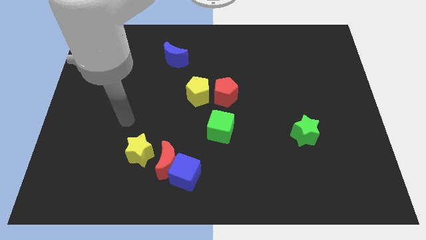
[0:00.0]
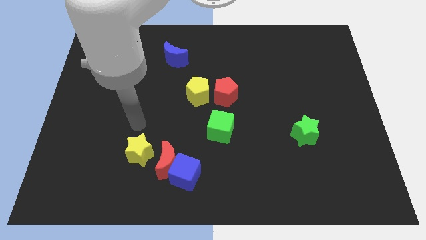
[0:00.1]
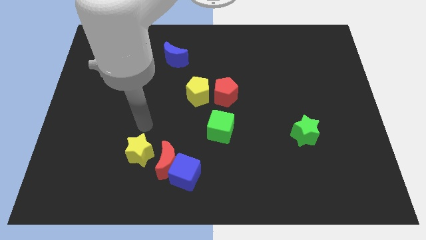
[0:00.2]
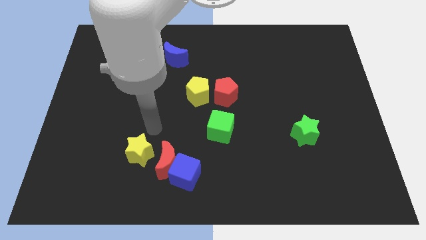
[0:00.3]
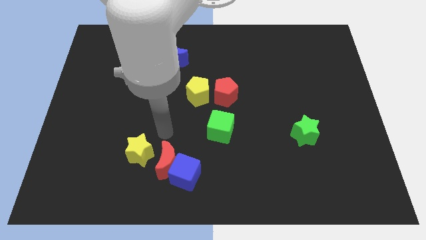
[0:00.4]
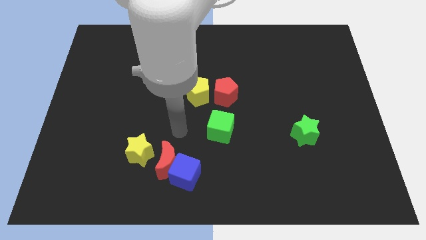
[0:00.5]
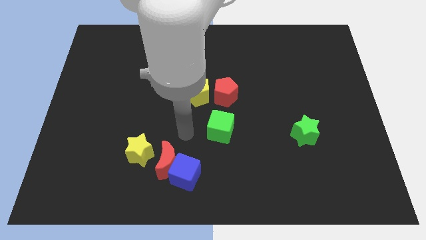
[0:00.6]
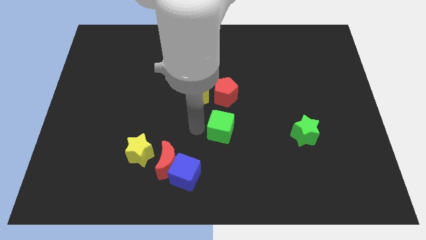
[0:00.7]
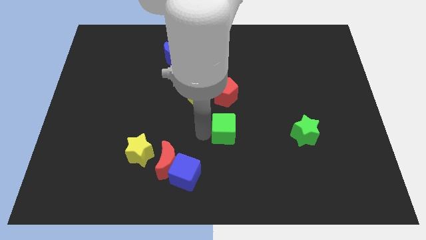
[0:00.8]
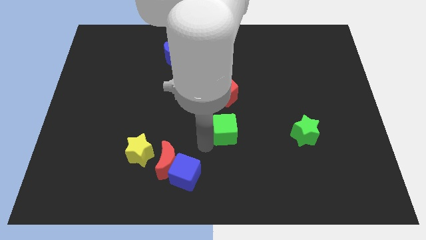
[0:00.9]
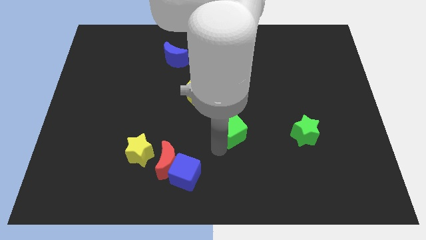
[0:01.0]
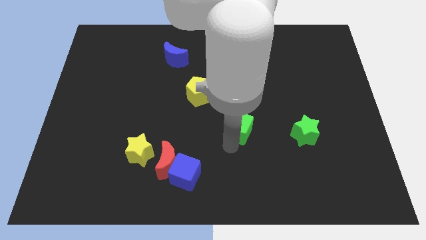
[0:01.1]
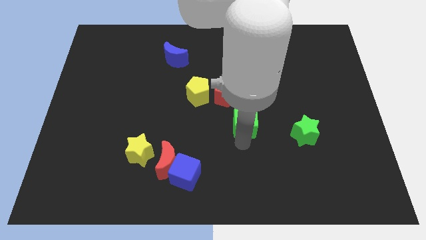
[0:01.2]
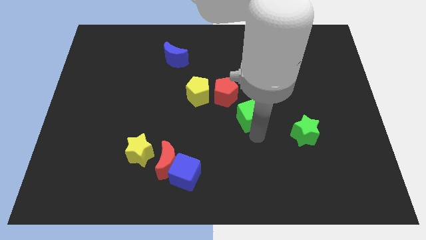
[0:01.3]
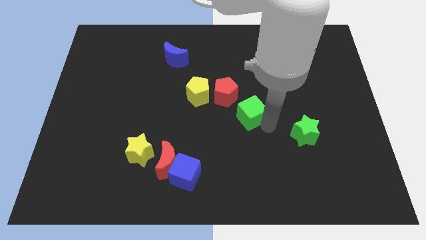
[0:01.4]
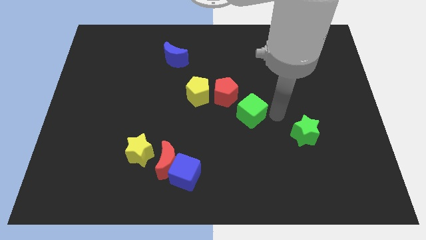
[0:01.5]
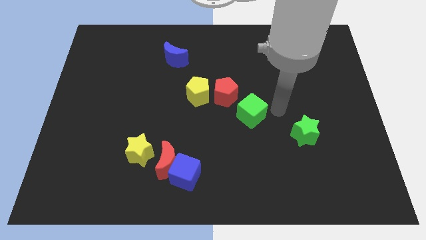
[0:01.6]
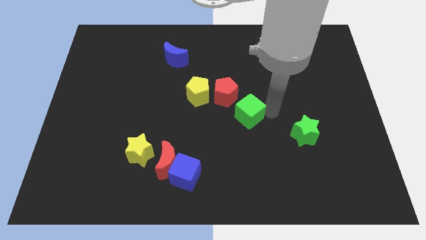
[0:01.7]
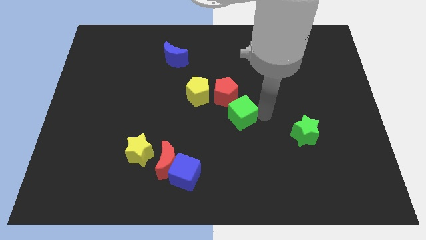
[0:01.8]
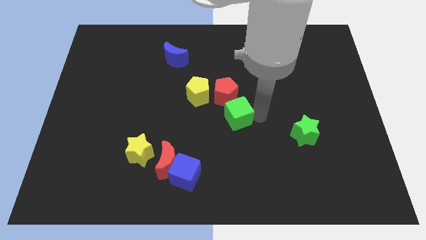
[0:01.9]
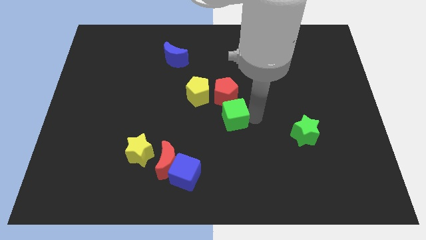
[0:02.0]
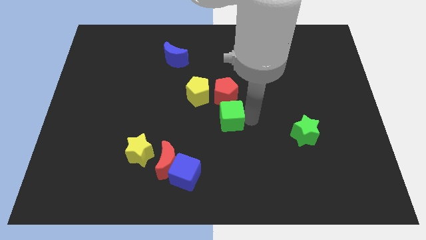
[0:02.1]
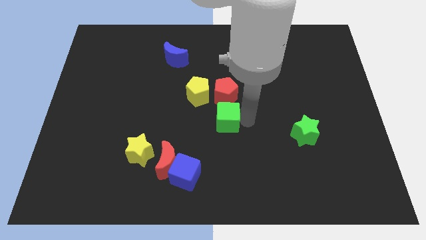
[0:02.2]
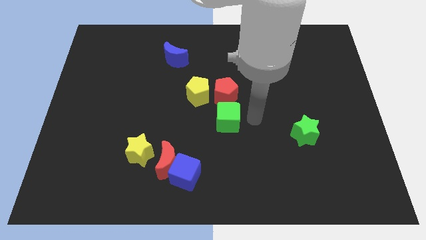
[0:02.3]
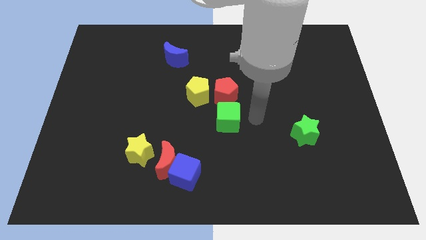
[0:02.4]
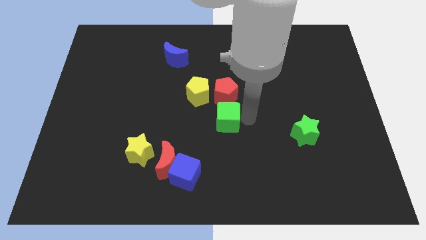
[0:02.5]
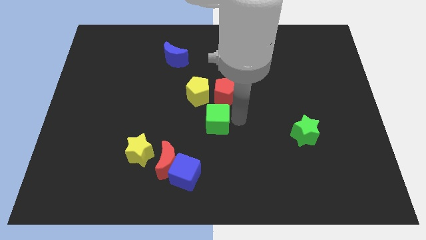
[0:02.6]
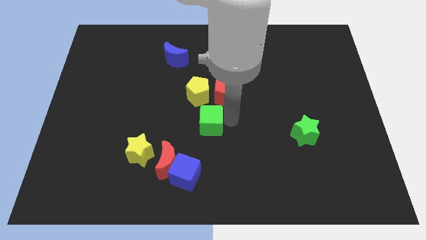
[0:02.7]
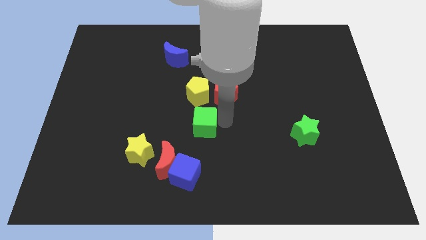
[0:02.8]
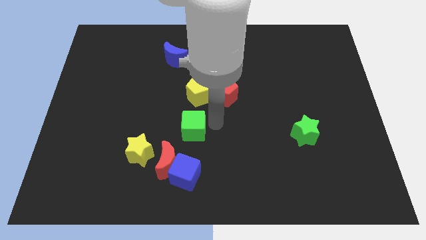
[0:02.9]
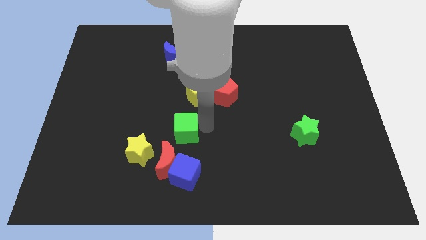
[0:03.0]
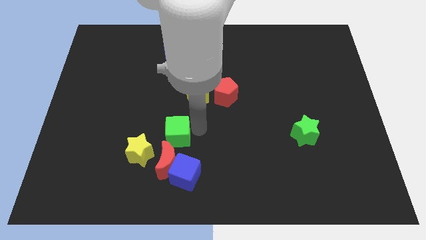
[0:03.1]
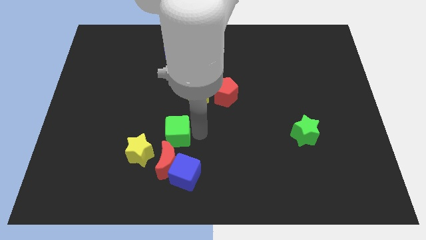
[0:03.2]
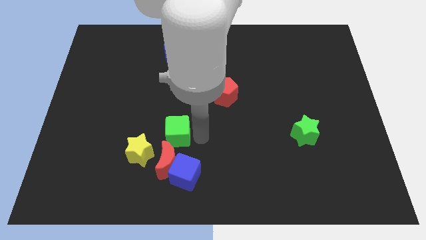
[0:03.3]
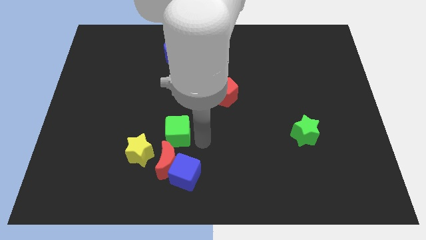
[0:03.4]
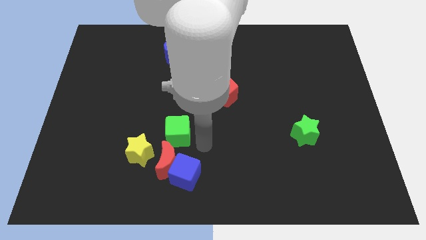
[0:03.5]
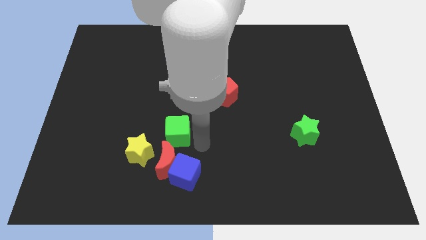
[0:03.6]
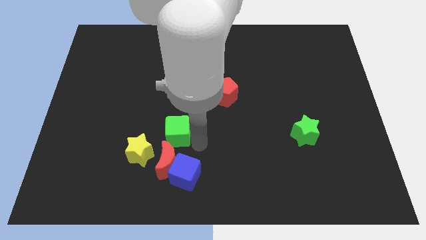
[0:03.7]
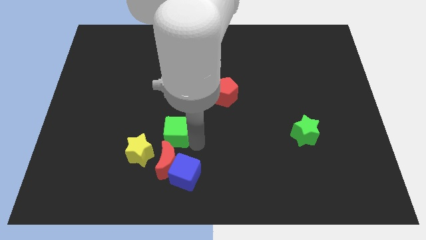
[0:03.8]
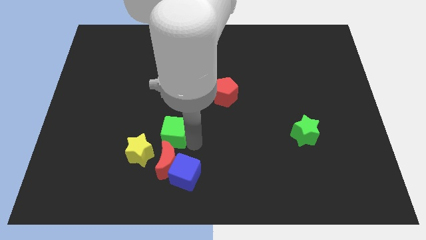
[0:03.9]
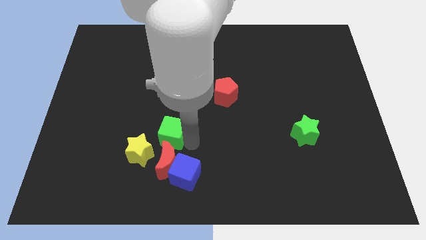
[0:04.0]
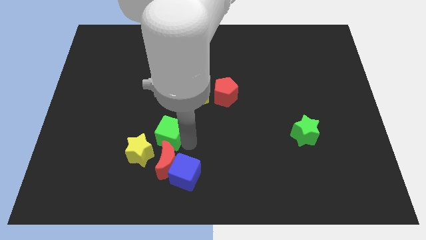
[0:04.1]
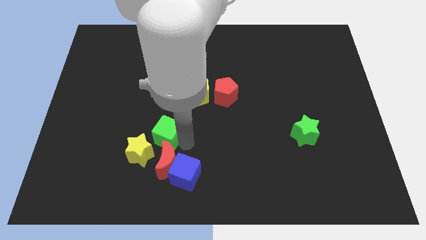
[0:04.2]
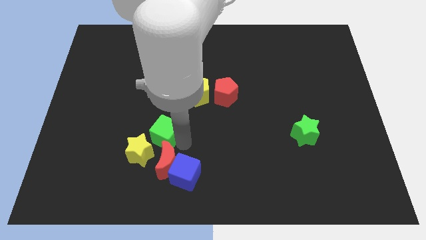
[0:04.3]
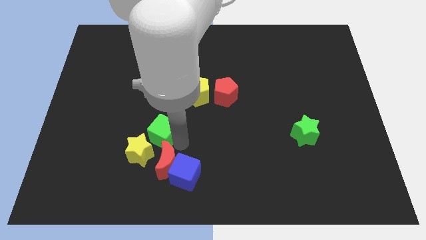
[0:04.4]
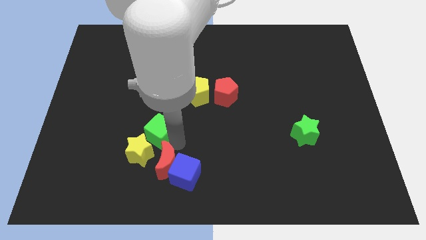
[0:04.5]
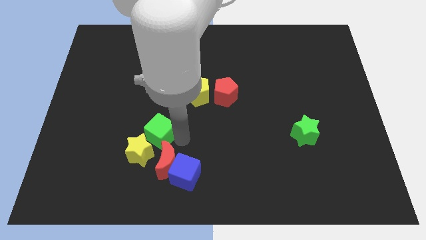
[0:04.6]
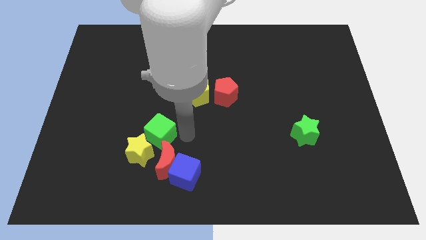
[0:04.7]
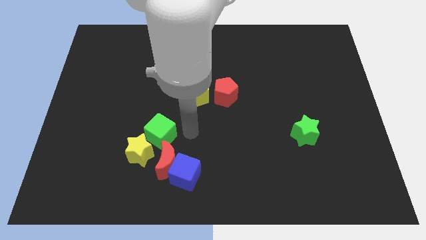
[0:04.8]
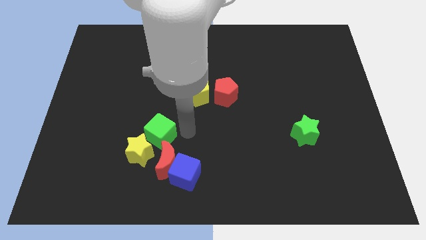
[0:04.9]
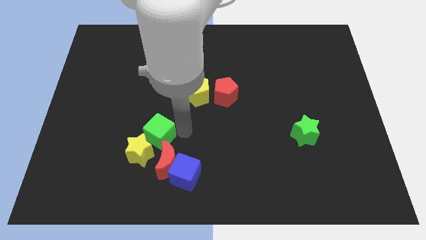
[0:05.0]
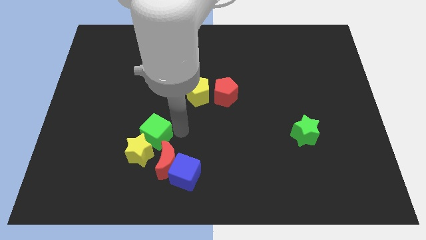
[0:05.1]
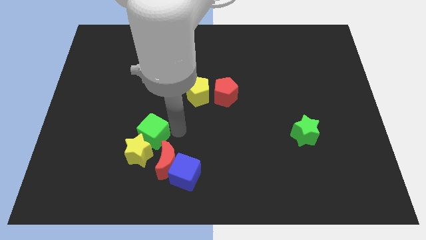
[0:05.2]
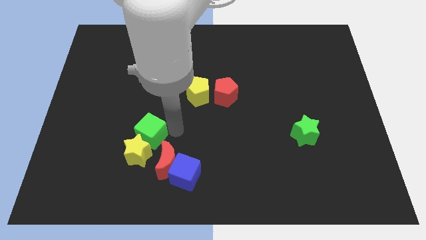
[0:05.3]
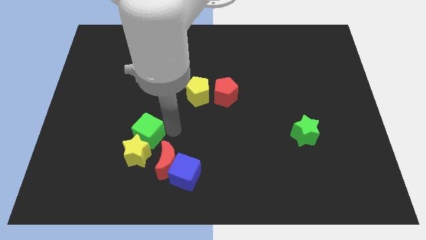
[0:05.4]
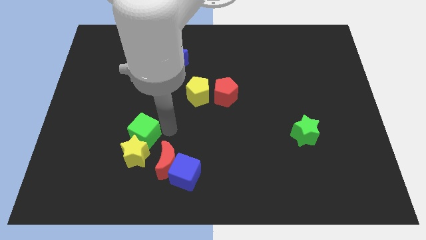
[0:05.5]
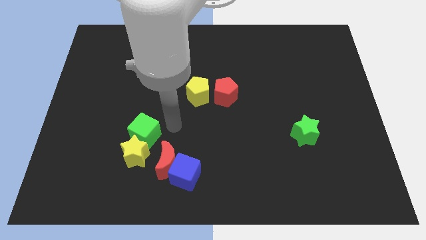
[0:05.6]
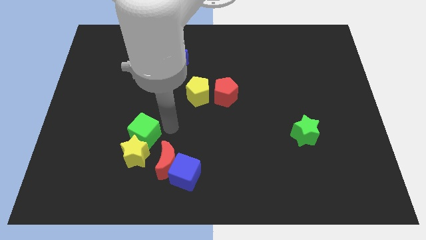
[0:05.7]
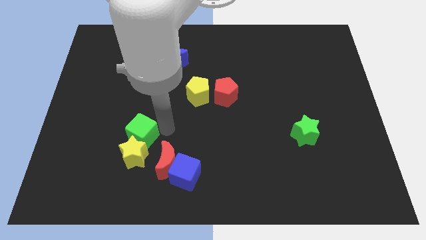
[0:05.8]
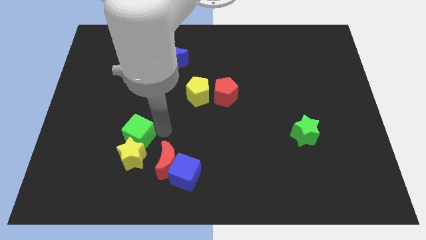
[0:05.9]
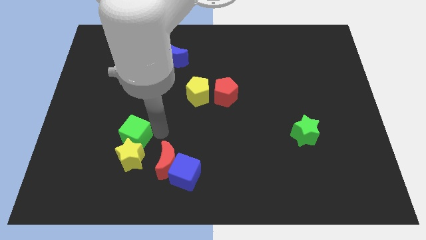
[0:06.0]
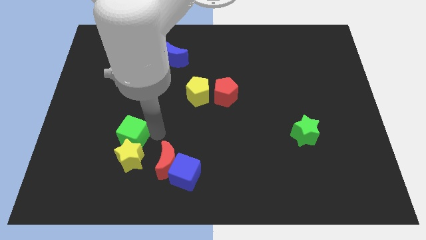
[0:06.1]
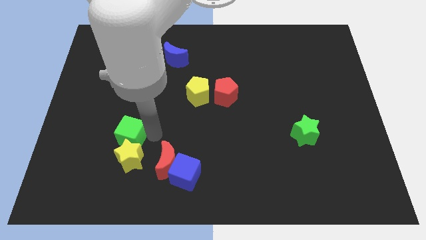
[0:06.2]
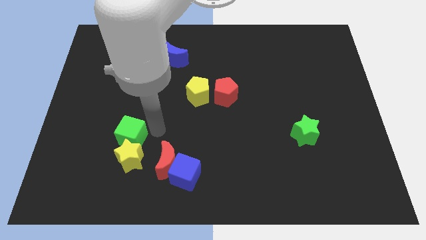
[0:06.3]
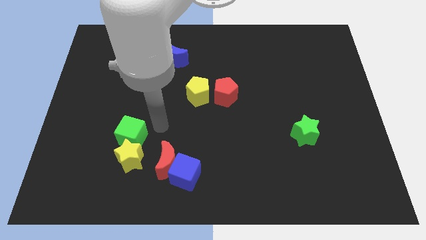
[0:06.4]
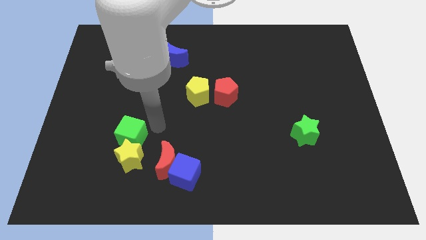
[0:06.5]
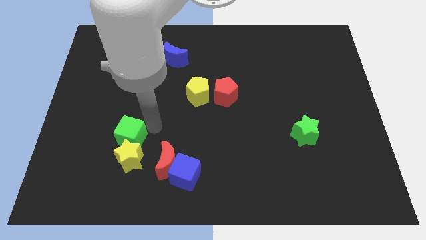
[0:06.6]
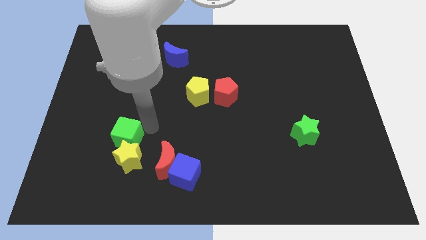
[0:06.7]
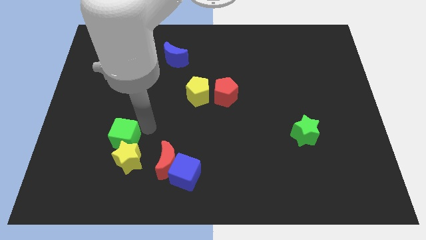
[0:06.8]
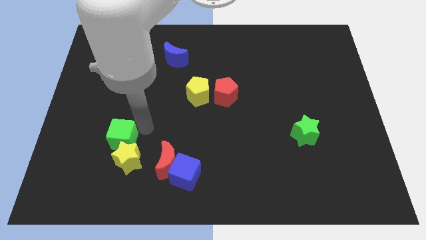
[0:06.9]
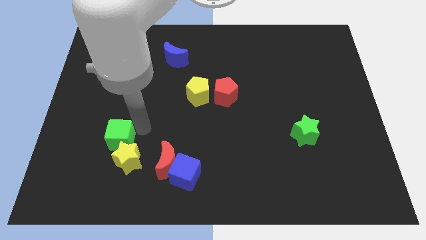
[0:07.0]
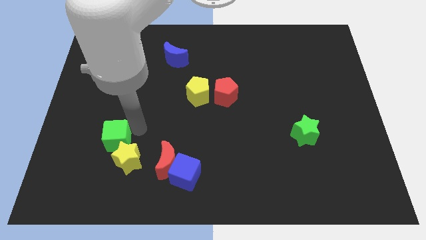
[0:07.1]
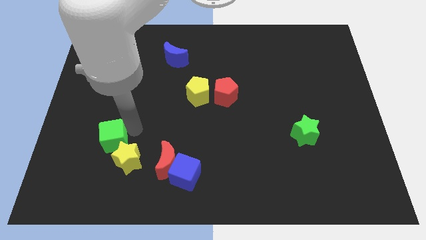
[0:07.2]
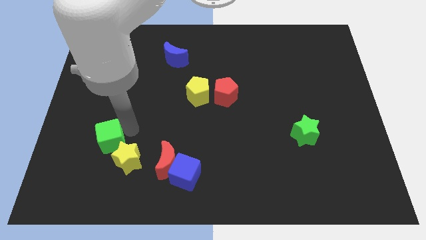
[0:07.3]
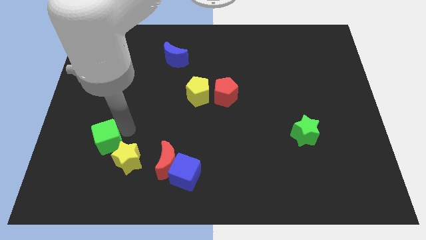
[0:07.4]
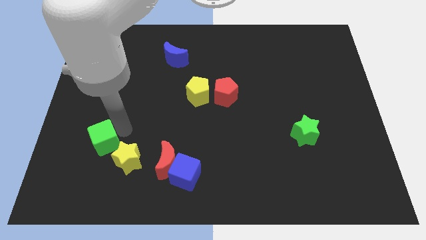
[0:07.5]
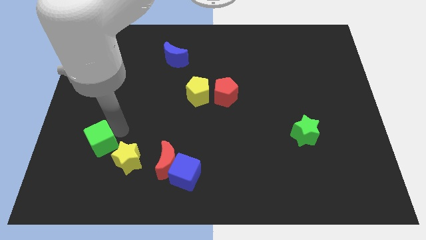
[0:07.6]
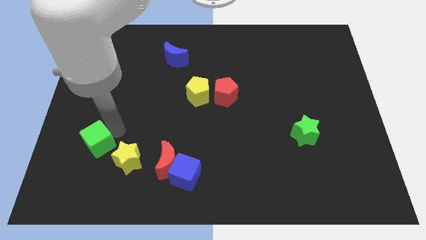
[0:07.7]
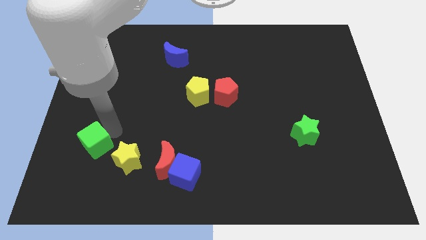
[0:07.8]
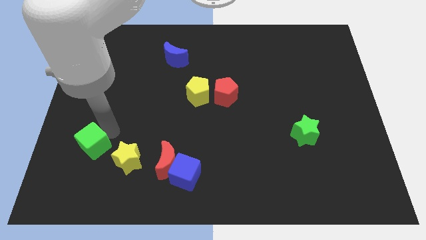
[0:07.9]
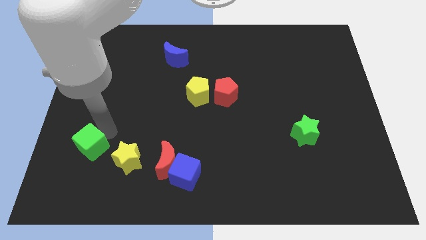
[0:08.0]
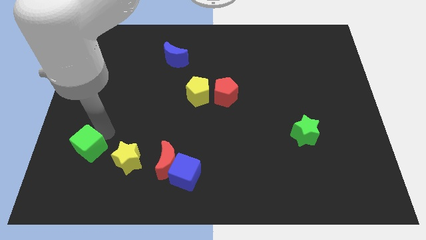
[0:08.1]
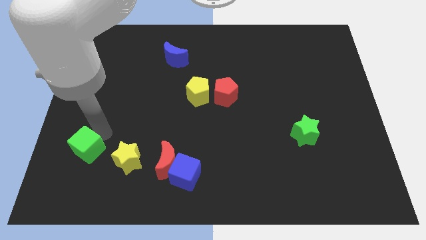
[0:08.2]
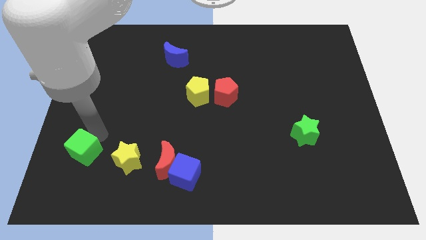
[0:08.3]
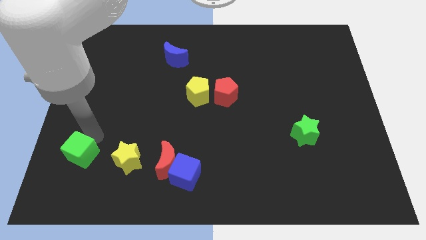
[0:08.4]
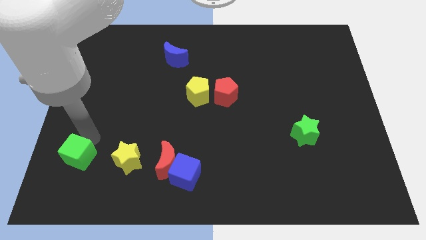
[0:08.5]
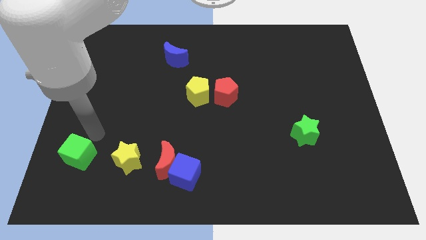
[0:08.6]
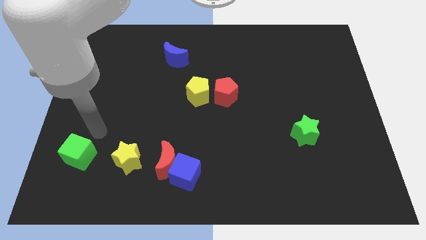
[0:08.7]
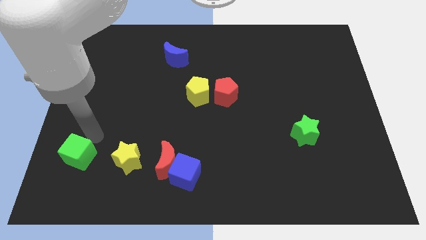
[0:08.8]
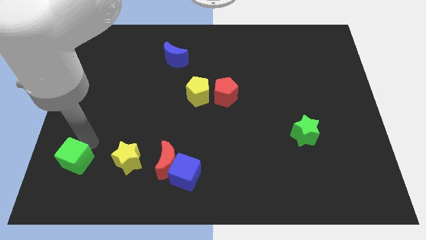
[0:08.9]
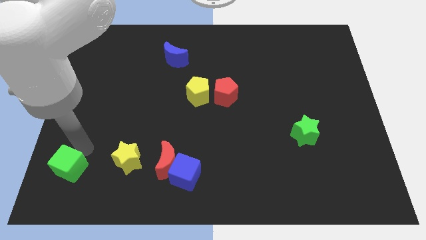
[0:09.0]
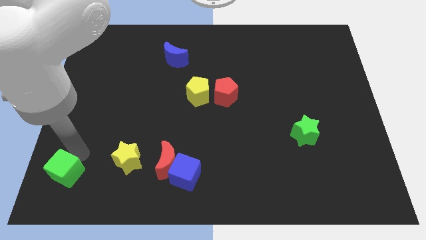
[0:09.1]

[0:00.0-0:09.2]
move the green cube to the bottom left
